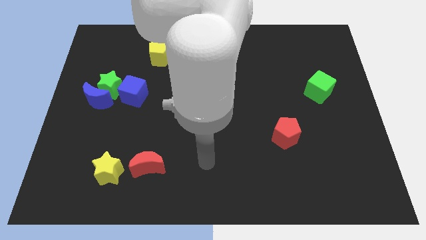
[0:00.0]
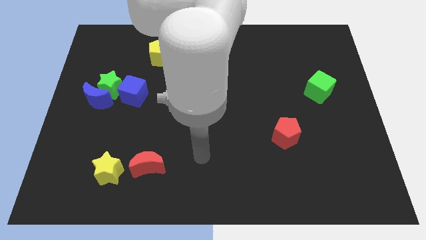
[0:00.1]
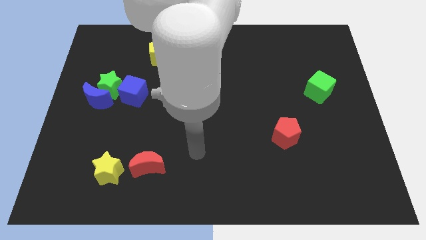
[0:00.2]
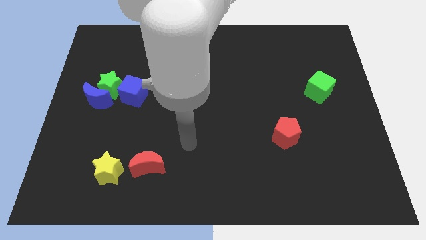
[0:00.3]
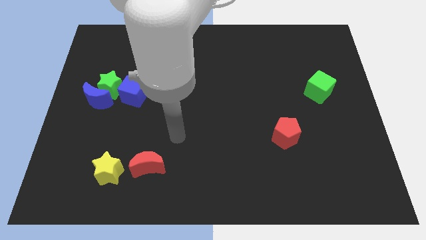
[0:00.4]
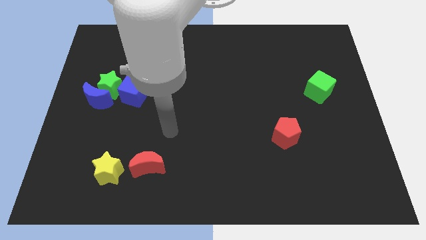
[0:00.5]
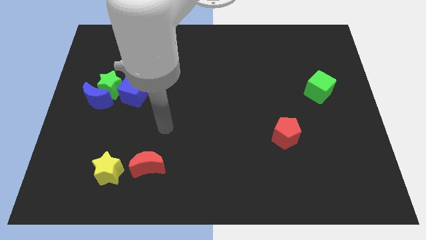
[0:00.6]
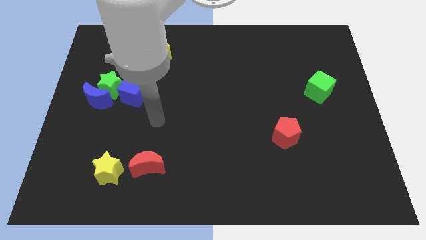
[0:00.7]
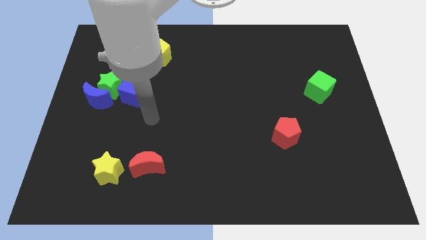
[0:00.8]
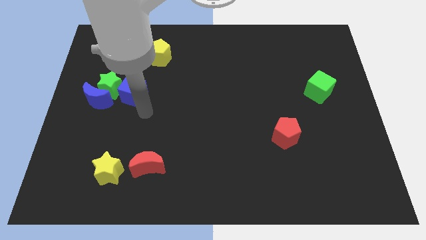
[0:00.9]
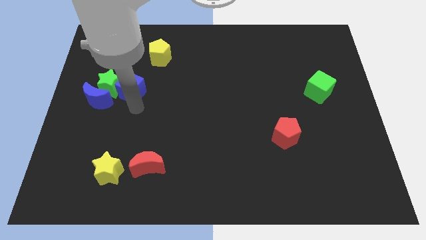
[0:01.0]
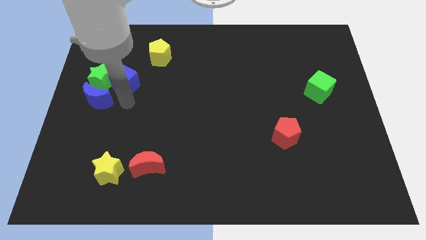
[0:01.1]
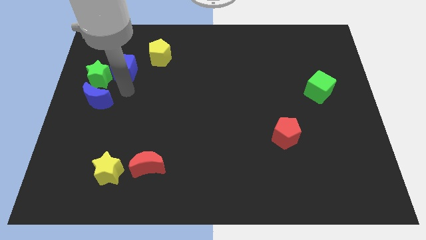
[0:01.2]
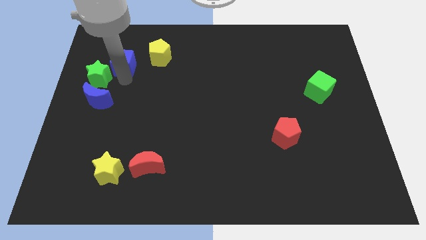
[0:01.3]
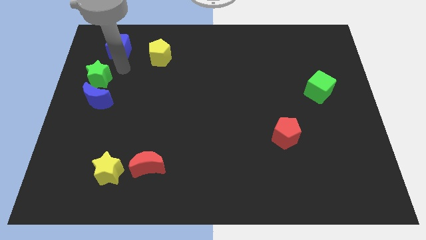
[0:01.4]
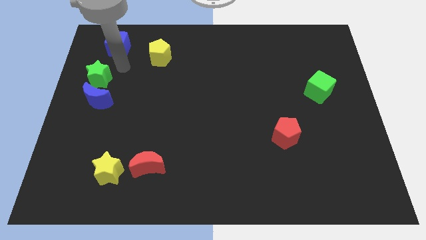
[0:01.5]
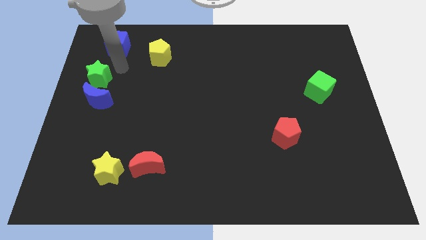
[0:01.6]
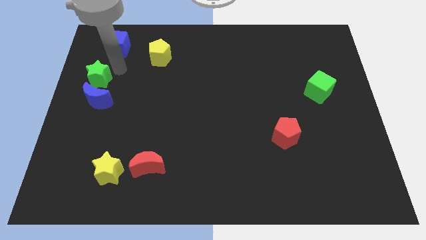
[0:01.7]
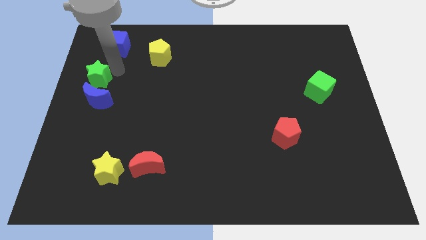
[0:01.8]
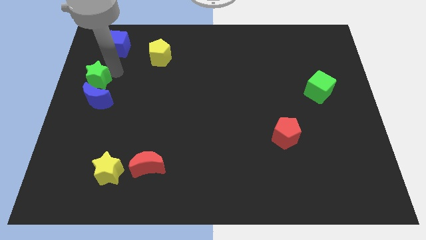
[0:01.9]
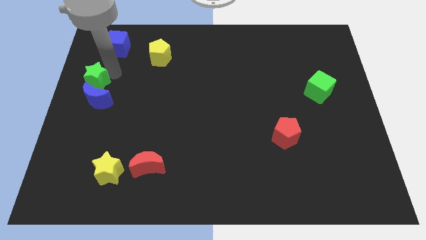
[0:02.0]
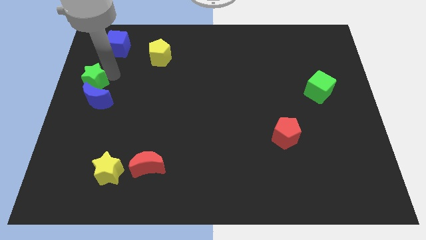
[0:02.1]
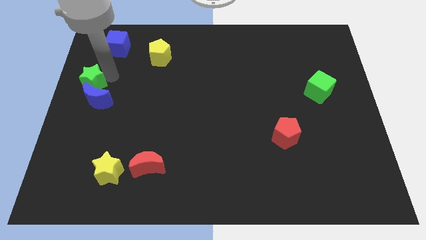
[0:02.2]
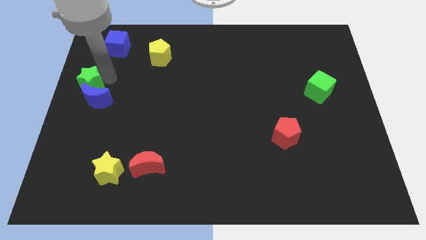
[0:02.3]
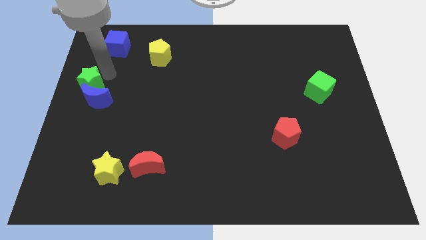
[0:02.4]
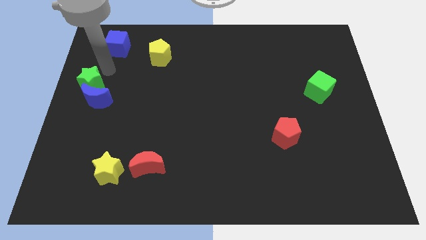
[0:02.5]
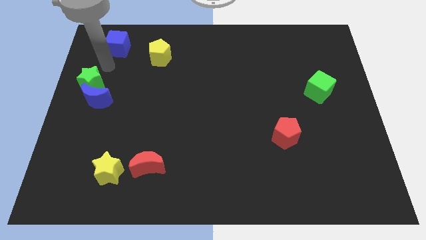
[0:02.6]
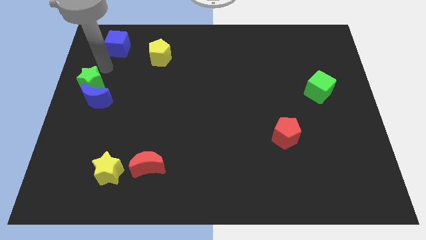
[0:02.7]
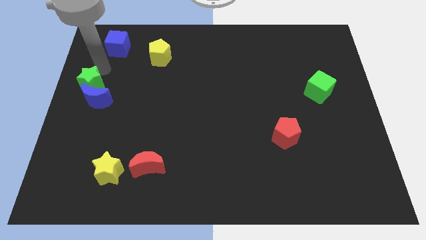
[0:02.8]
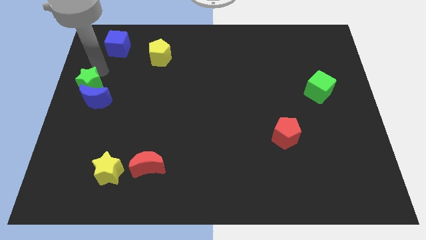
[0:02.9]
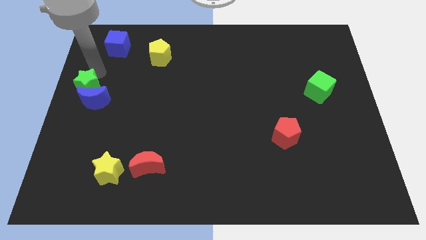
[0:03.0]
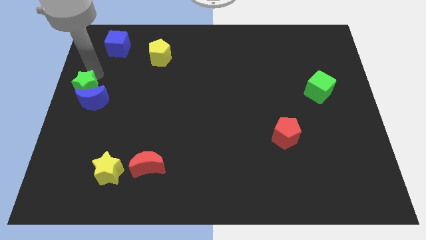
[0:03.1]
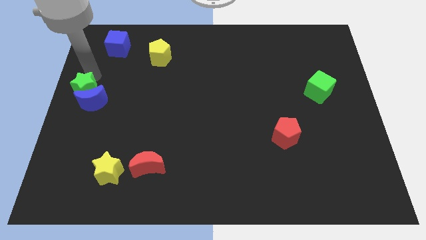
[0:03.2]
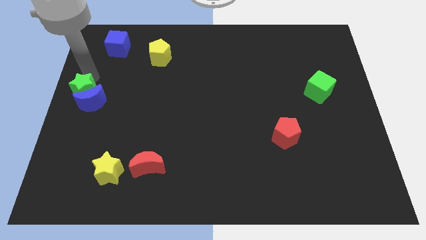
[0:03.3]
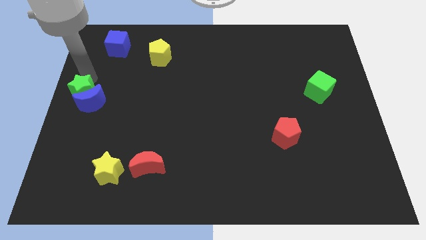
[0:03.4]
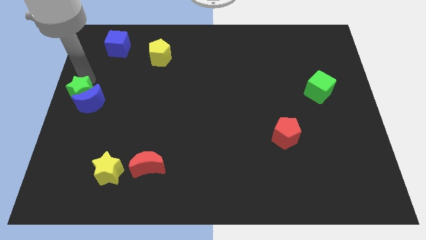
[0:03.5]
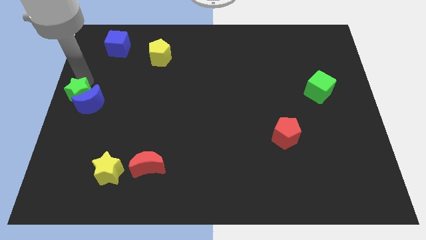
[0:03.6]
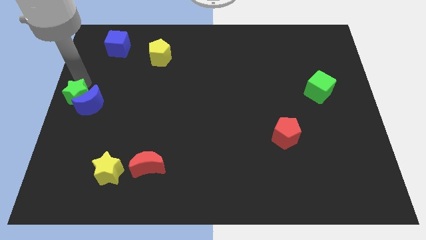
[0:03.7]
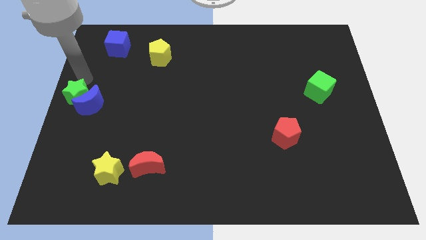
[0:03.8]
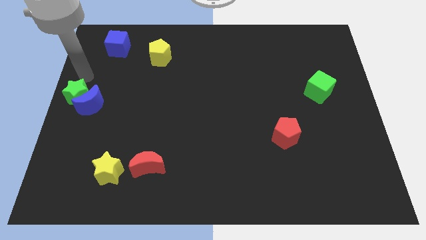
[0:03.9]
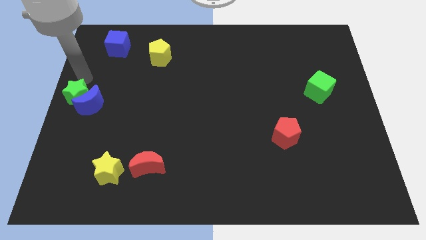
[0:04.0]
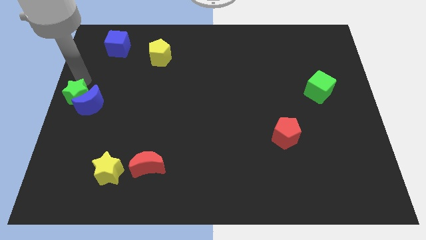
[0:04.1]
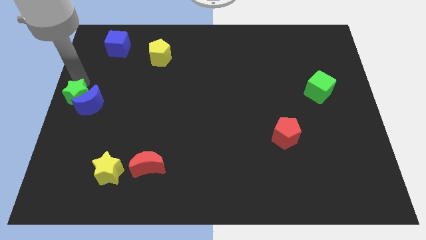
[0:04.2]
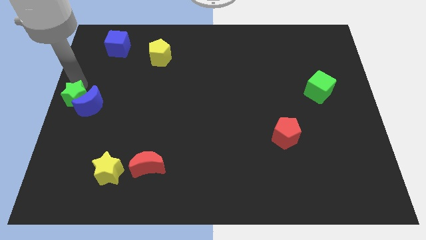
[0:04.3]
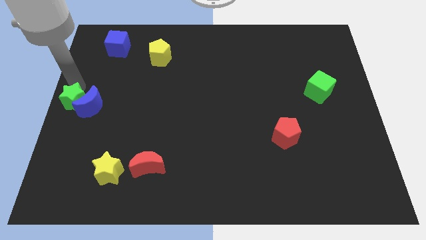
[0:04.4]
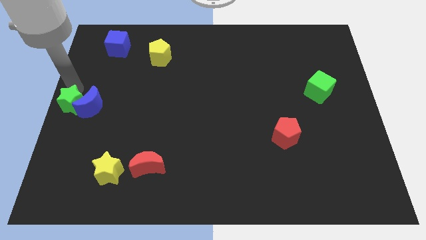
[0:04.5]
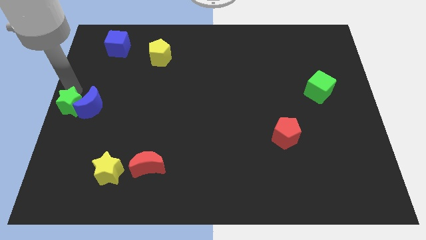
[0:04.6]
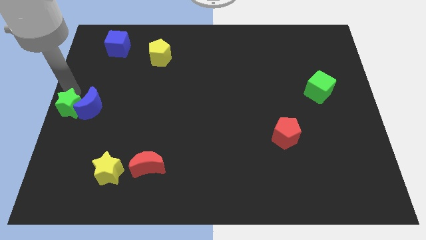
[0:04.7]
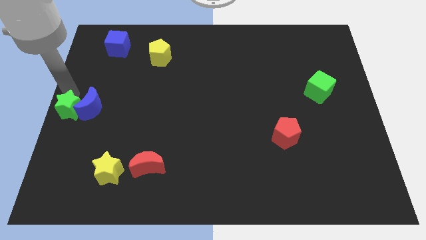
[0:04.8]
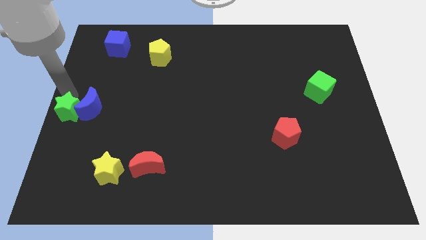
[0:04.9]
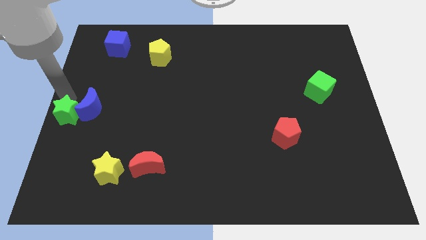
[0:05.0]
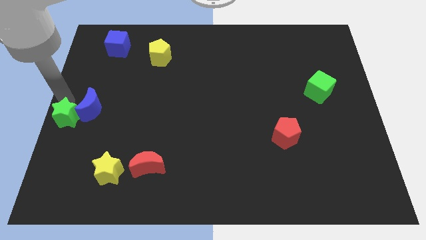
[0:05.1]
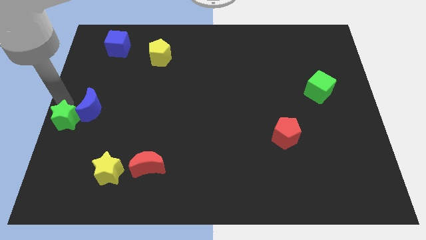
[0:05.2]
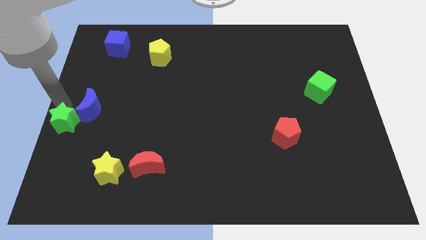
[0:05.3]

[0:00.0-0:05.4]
push the green star a little bit down

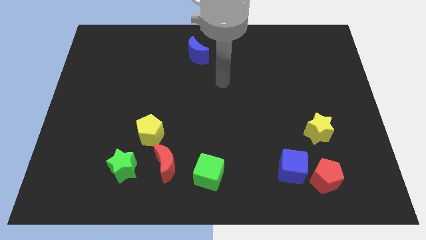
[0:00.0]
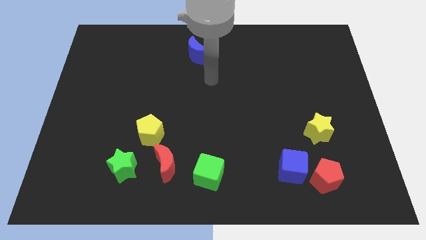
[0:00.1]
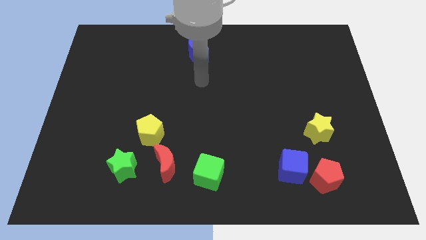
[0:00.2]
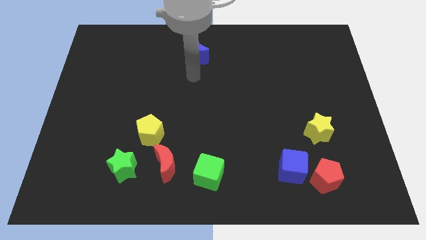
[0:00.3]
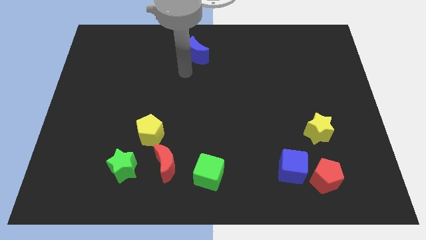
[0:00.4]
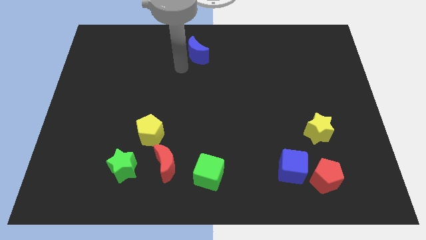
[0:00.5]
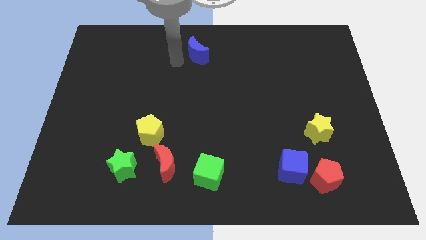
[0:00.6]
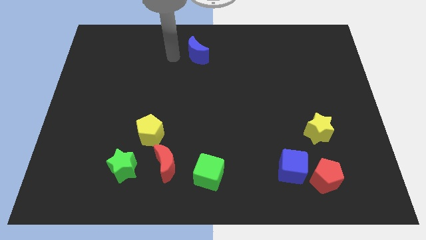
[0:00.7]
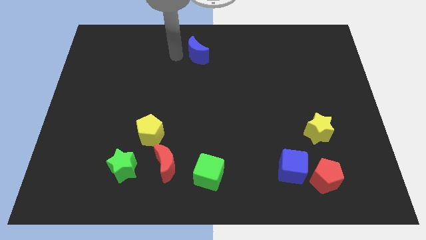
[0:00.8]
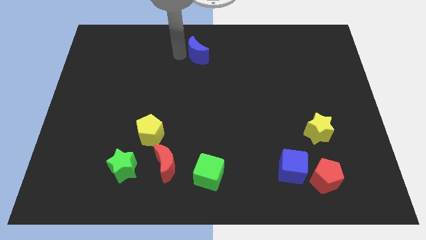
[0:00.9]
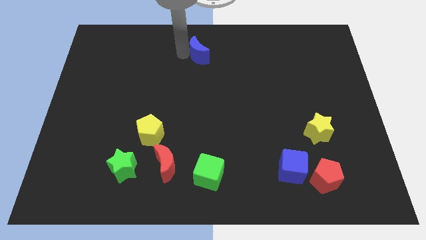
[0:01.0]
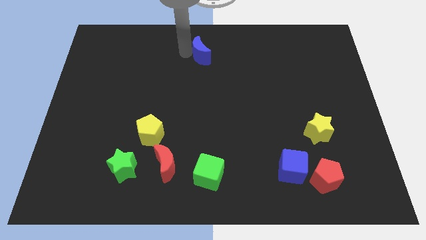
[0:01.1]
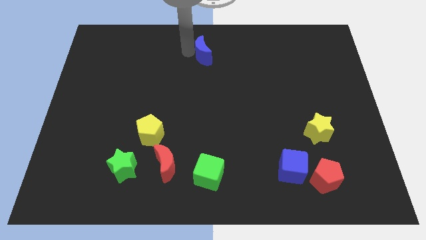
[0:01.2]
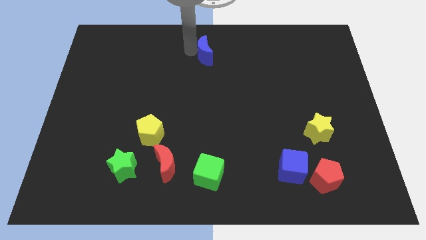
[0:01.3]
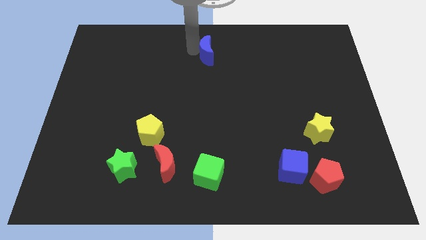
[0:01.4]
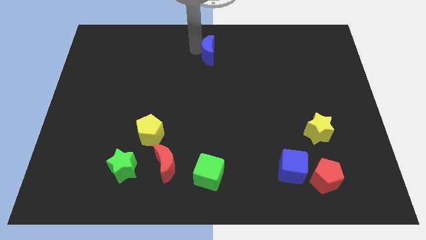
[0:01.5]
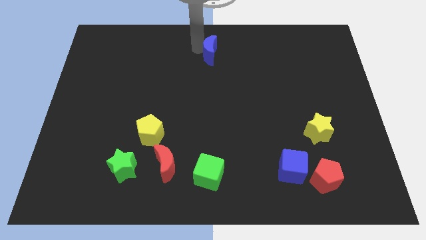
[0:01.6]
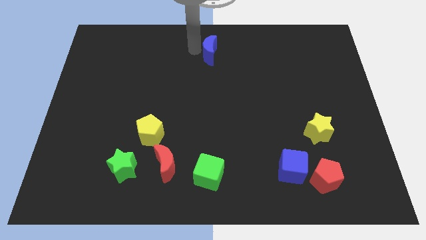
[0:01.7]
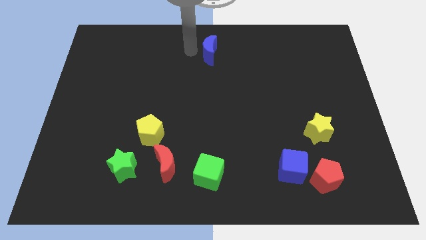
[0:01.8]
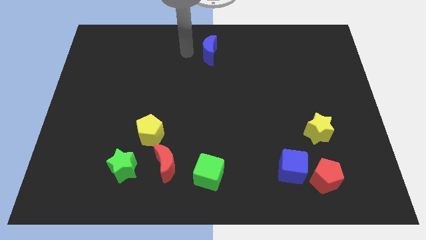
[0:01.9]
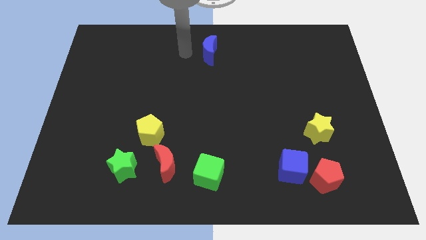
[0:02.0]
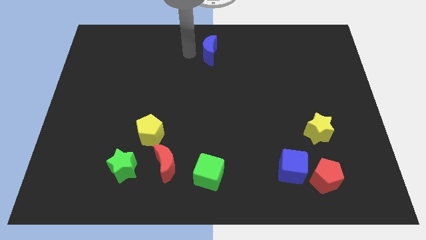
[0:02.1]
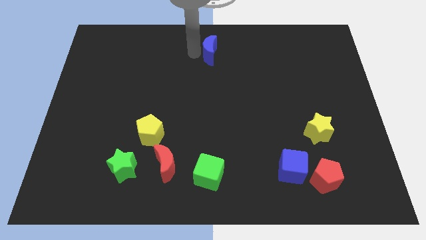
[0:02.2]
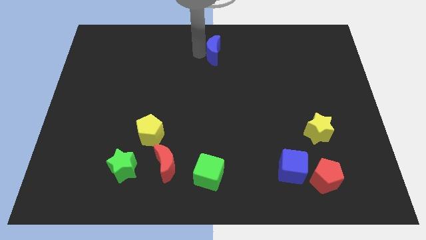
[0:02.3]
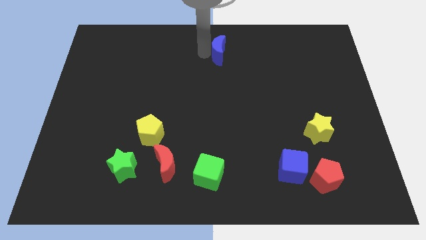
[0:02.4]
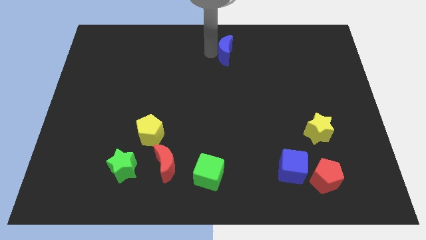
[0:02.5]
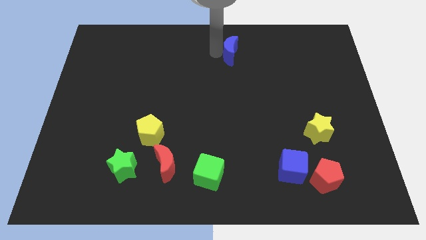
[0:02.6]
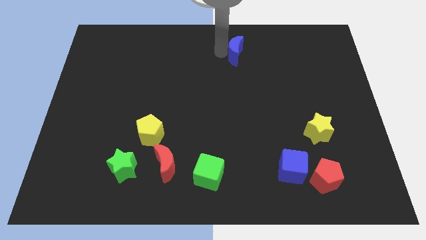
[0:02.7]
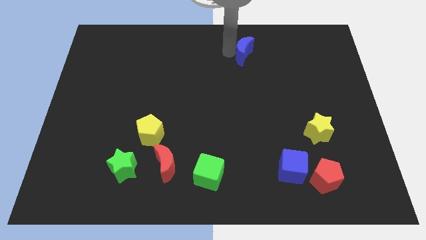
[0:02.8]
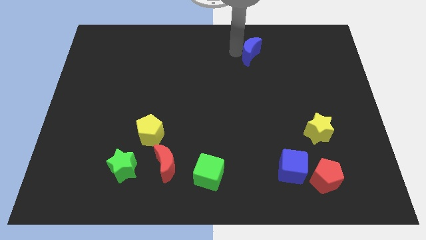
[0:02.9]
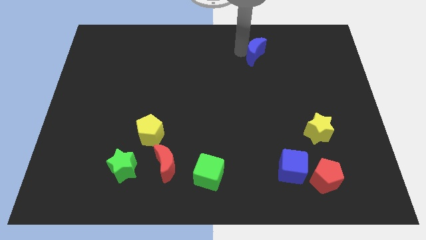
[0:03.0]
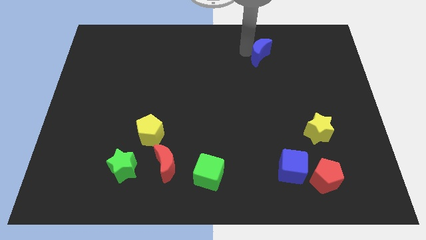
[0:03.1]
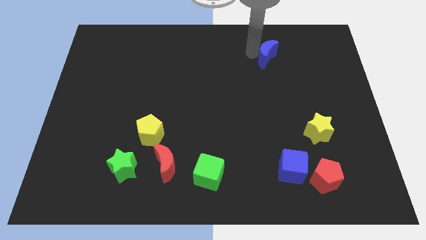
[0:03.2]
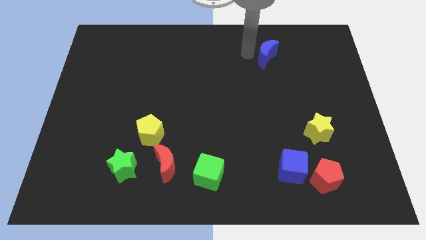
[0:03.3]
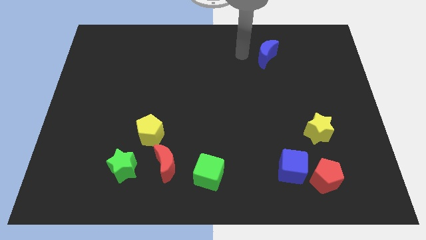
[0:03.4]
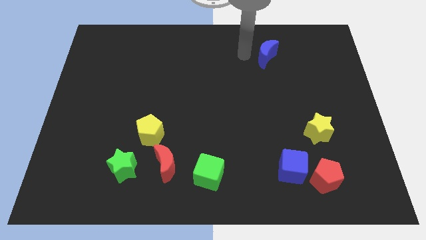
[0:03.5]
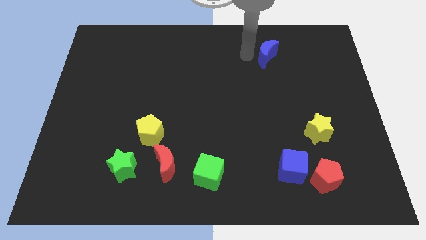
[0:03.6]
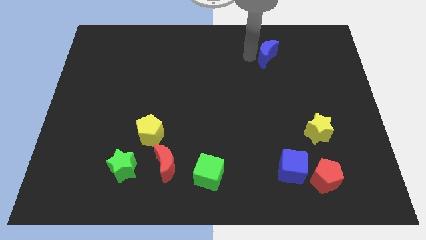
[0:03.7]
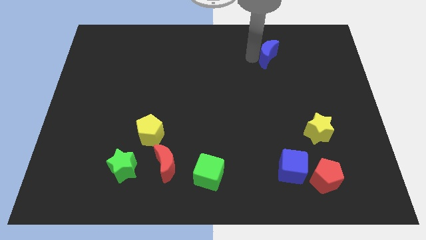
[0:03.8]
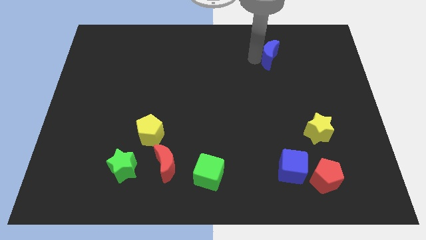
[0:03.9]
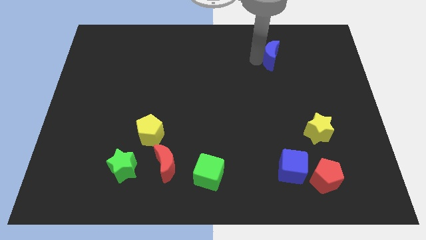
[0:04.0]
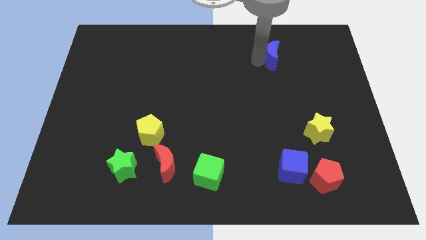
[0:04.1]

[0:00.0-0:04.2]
move the blue moon right
